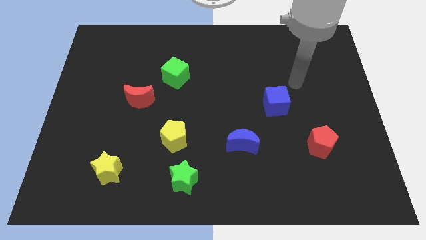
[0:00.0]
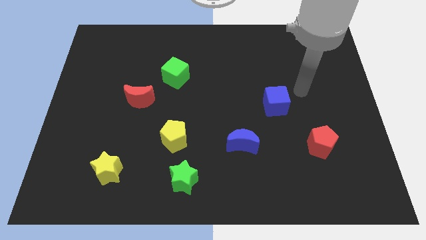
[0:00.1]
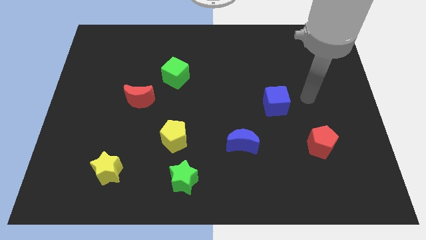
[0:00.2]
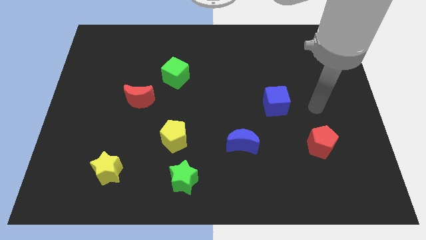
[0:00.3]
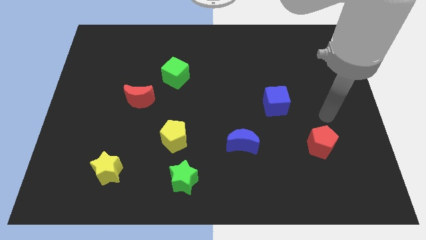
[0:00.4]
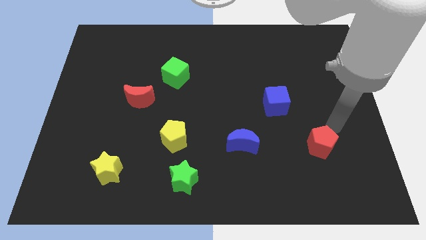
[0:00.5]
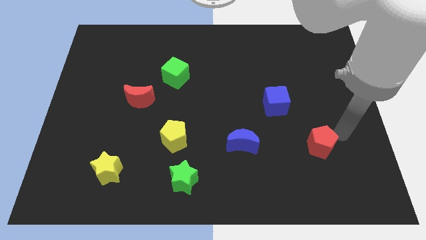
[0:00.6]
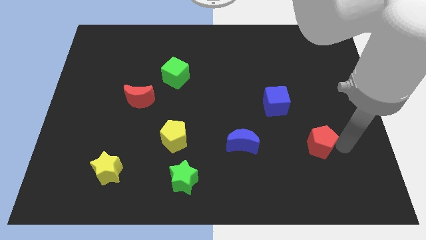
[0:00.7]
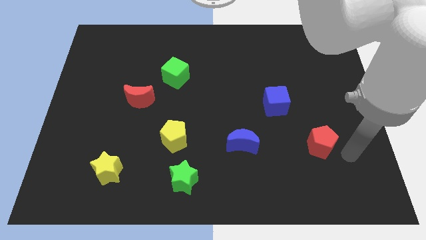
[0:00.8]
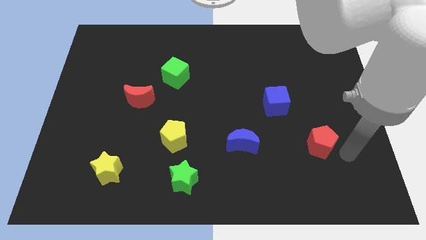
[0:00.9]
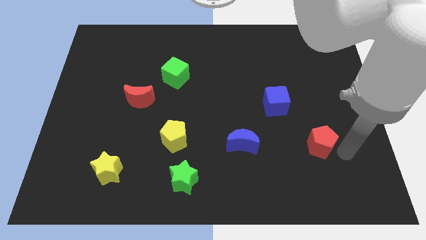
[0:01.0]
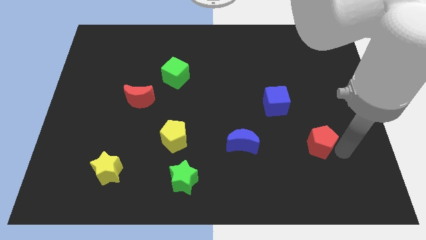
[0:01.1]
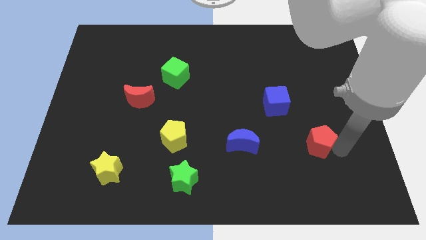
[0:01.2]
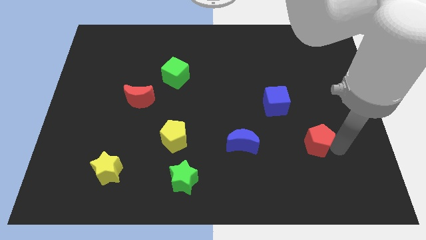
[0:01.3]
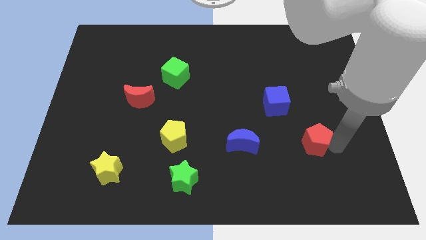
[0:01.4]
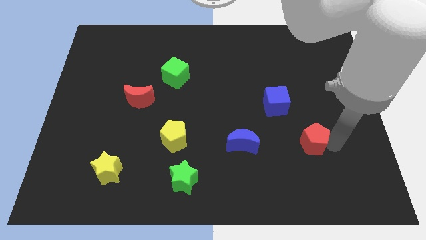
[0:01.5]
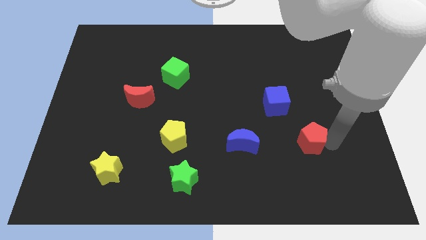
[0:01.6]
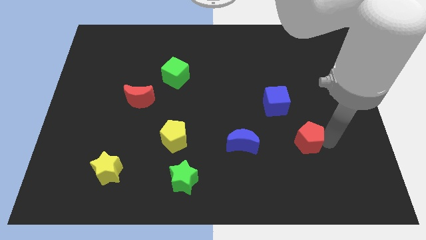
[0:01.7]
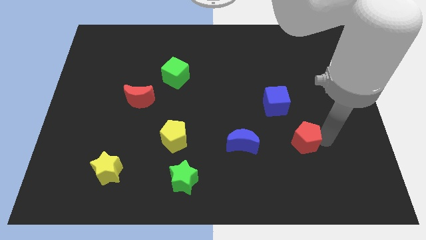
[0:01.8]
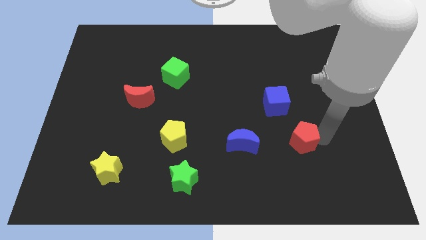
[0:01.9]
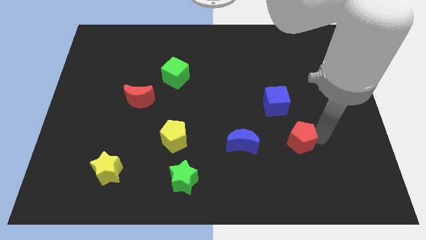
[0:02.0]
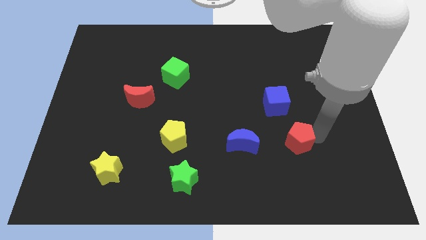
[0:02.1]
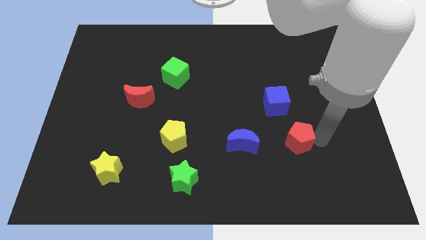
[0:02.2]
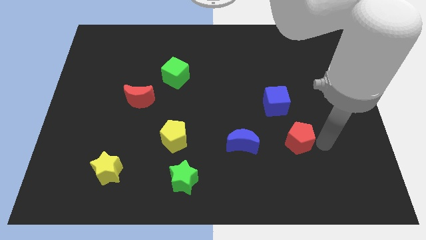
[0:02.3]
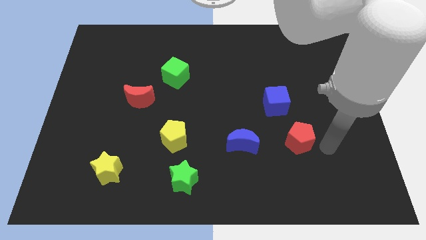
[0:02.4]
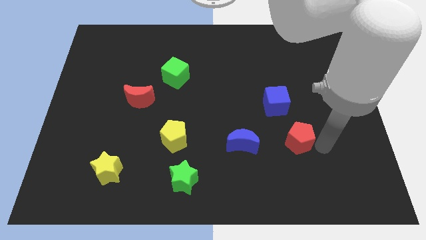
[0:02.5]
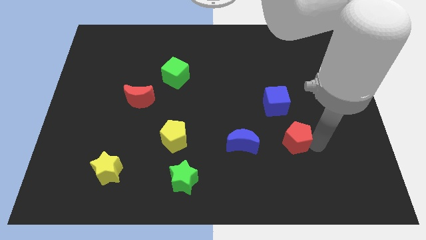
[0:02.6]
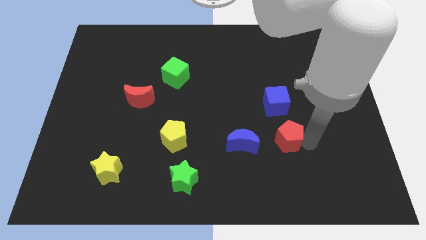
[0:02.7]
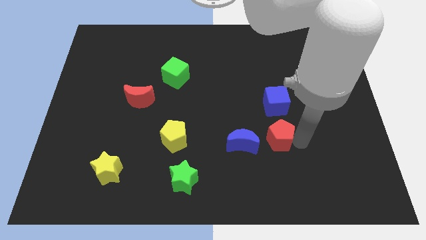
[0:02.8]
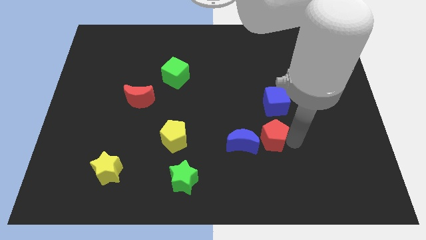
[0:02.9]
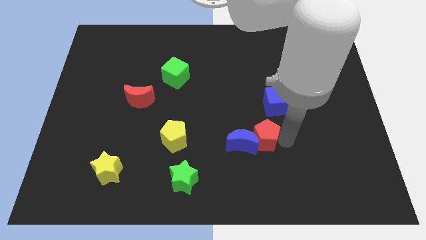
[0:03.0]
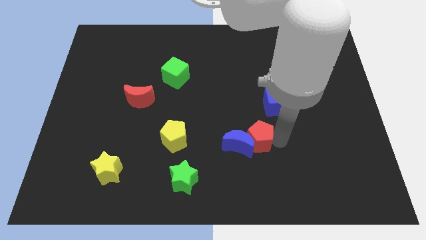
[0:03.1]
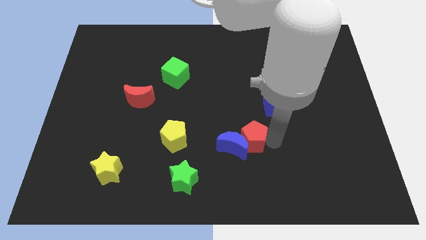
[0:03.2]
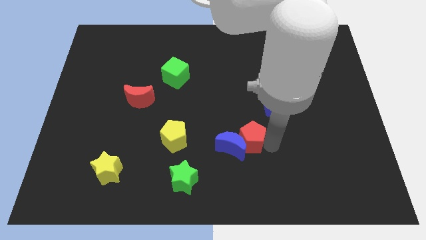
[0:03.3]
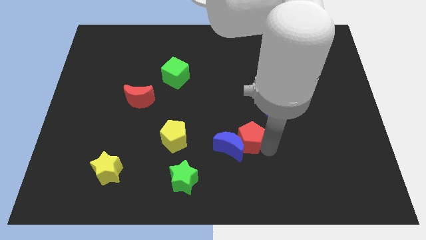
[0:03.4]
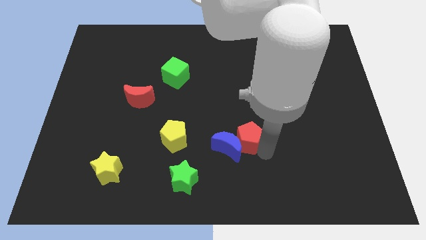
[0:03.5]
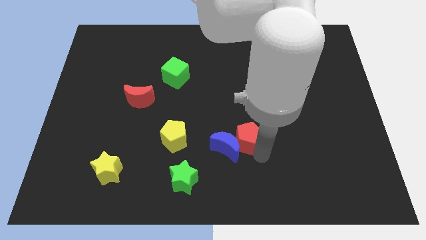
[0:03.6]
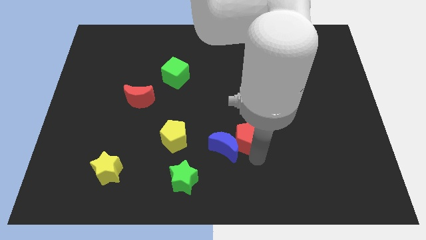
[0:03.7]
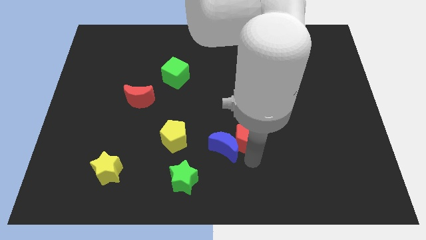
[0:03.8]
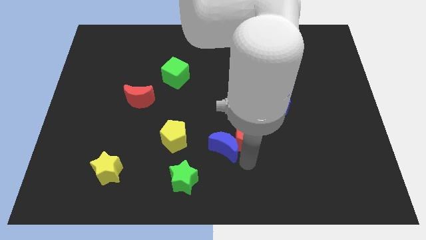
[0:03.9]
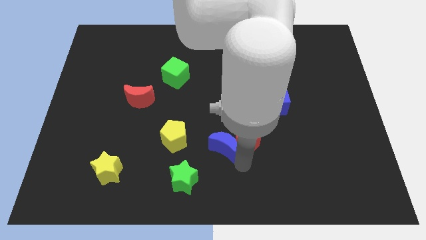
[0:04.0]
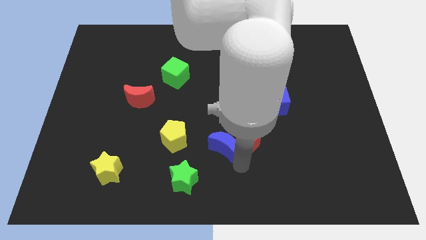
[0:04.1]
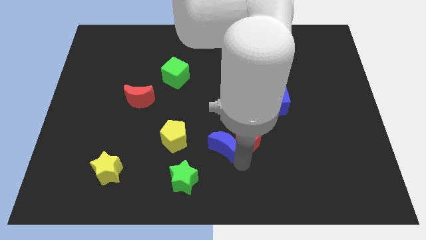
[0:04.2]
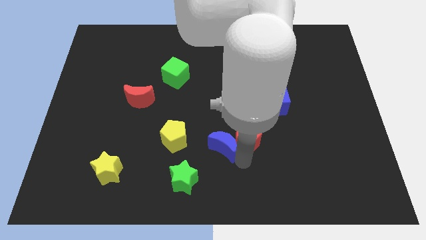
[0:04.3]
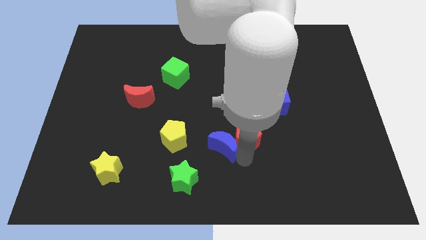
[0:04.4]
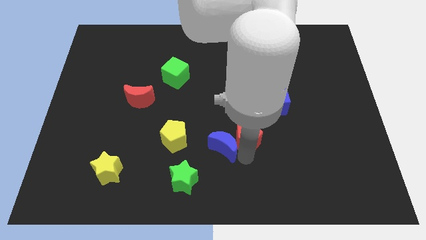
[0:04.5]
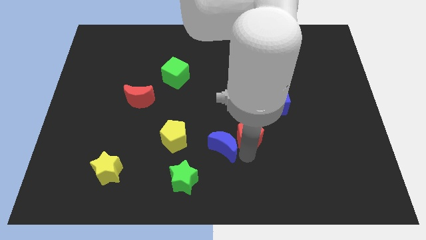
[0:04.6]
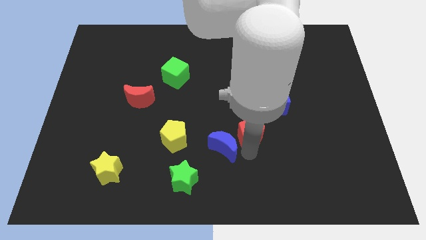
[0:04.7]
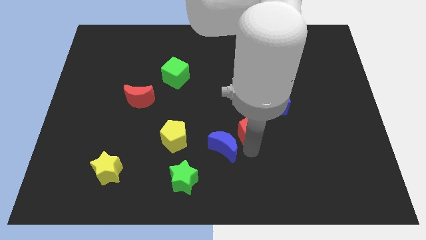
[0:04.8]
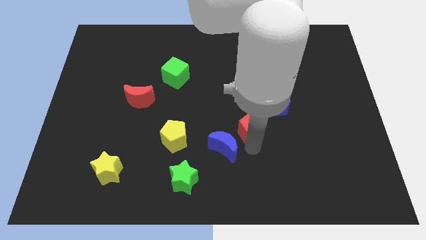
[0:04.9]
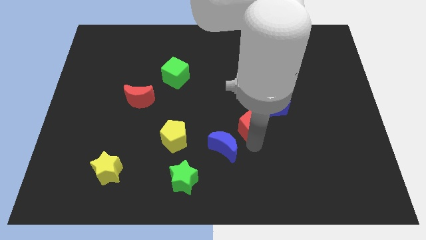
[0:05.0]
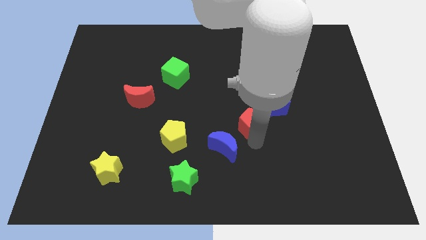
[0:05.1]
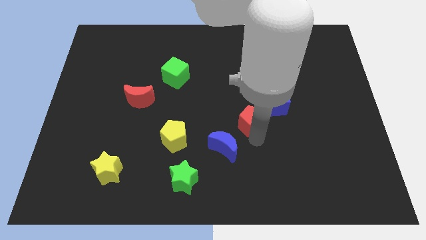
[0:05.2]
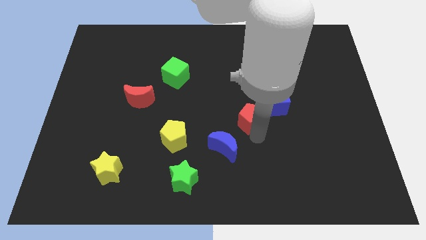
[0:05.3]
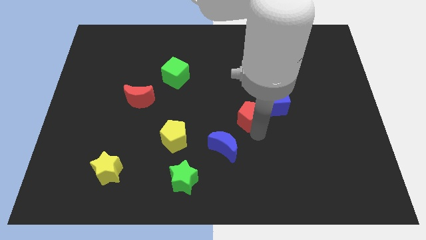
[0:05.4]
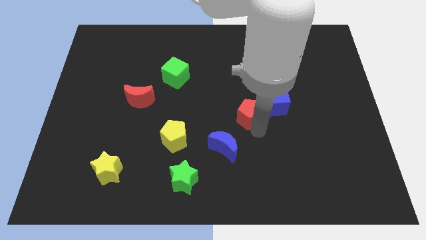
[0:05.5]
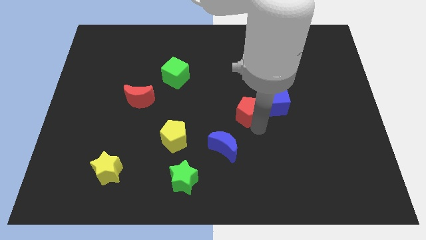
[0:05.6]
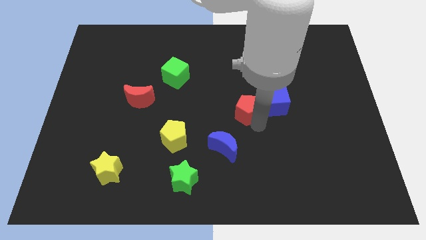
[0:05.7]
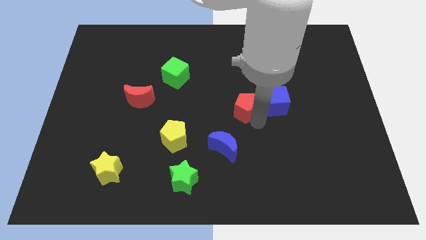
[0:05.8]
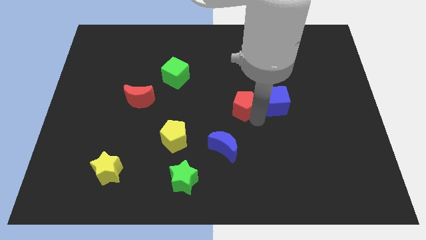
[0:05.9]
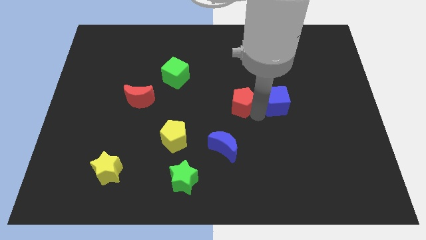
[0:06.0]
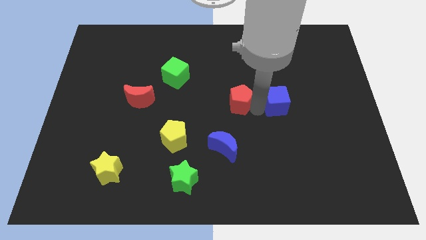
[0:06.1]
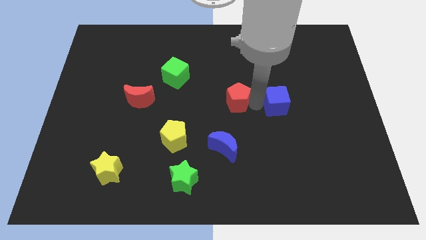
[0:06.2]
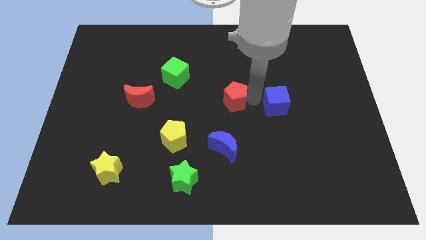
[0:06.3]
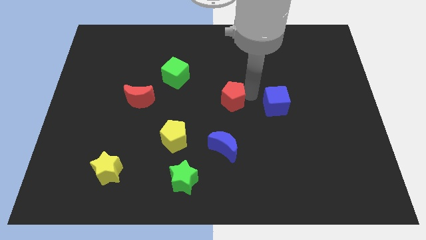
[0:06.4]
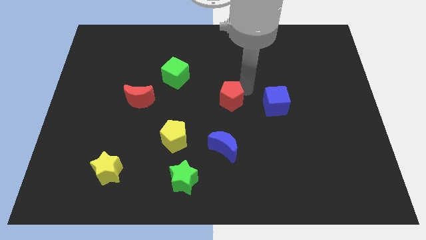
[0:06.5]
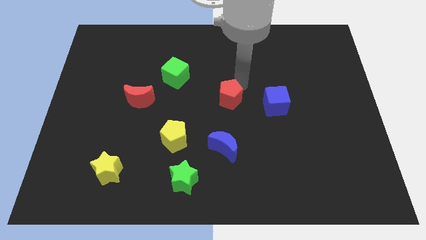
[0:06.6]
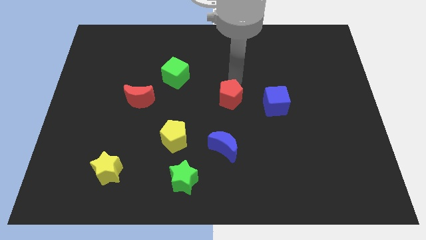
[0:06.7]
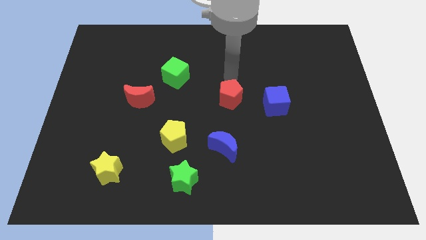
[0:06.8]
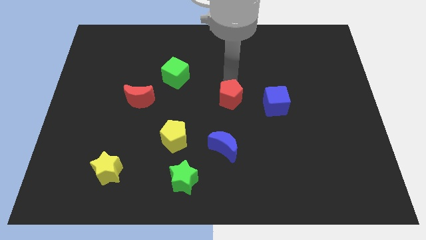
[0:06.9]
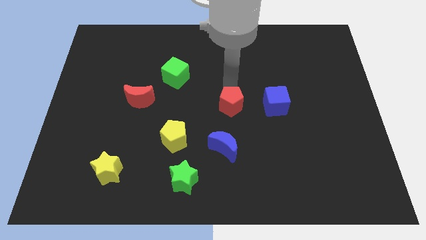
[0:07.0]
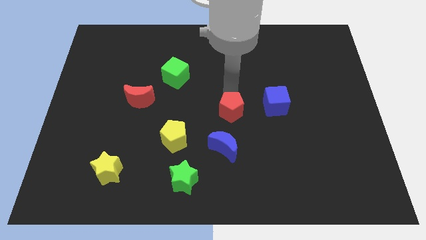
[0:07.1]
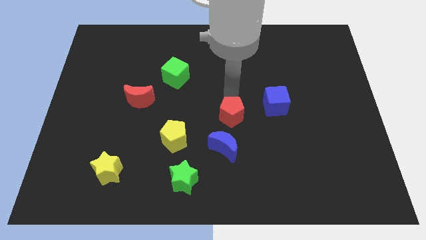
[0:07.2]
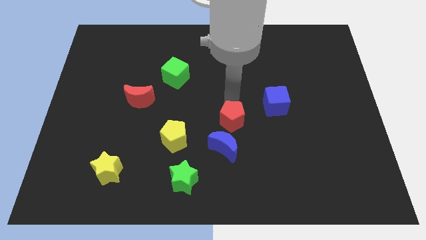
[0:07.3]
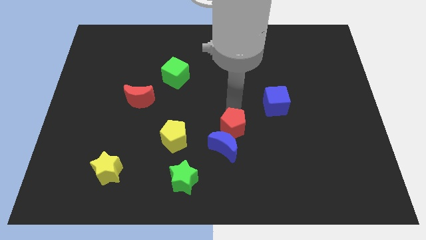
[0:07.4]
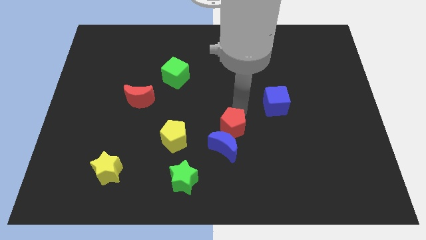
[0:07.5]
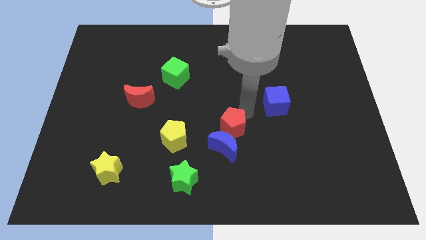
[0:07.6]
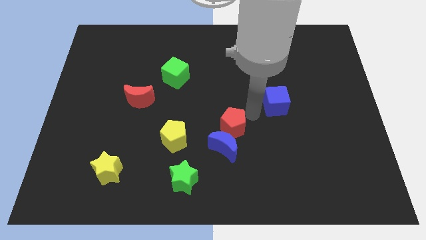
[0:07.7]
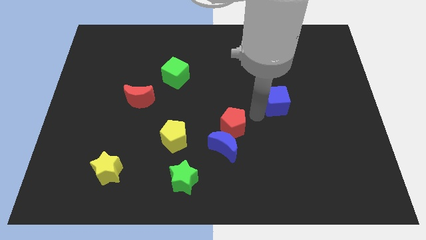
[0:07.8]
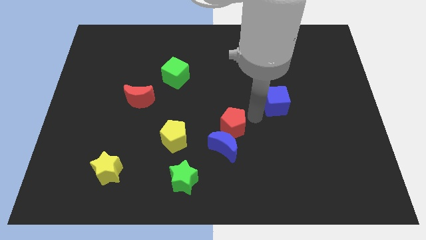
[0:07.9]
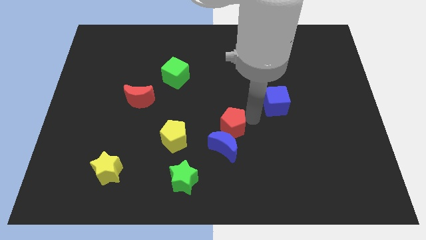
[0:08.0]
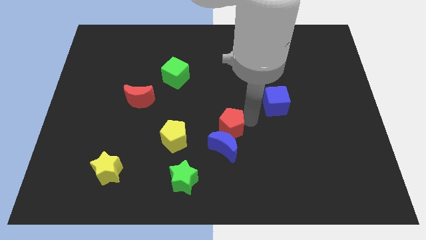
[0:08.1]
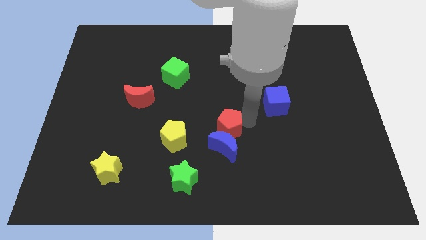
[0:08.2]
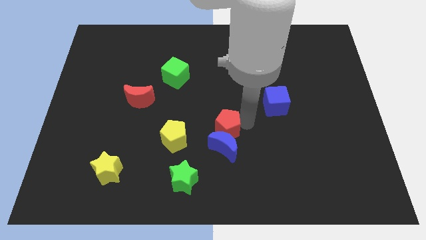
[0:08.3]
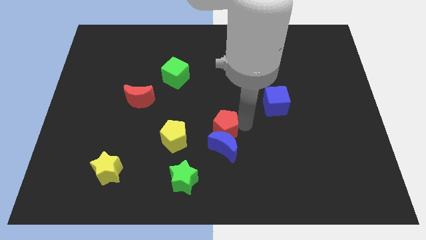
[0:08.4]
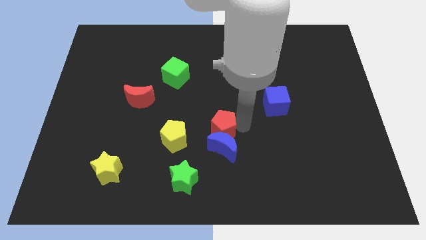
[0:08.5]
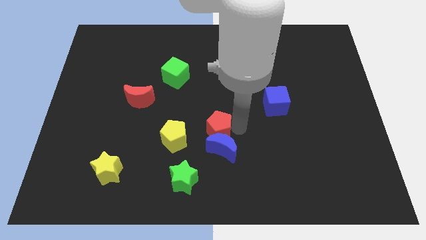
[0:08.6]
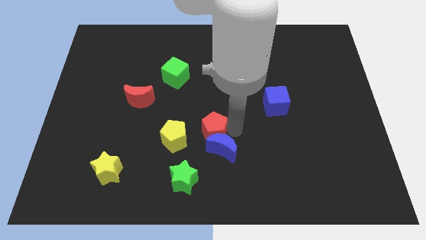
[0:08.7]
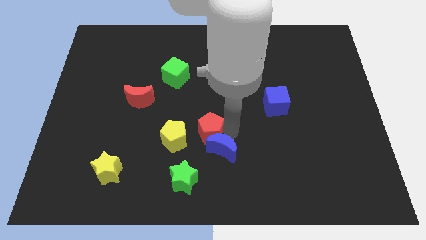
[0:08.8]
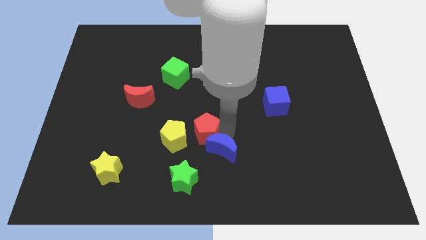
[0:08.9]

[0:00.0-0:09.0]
move the red pentagon left of the blue moon
